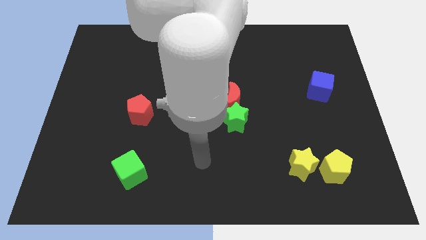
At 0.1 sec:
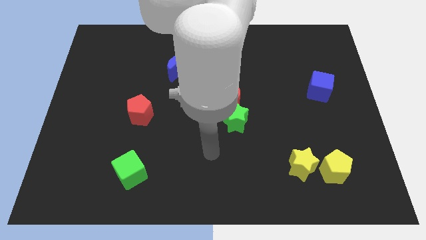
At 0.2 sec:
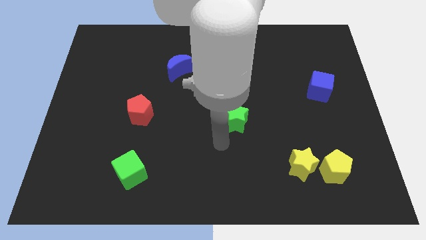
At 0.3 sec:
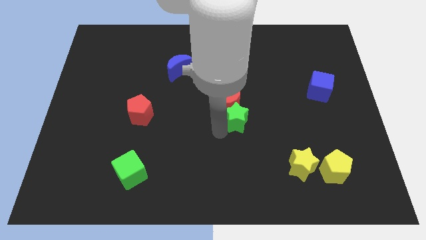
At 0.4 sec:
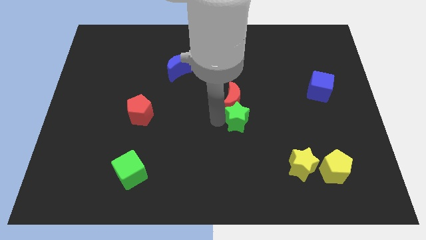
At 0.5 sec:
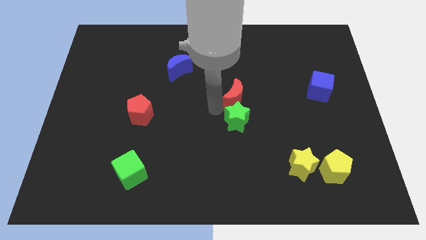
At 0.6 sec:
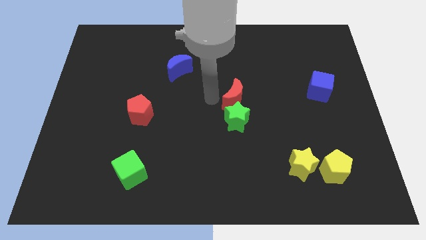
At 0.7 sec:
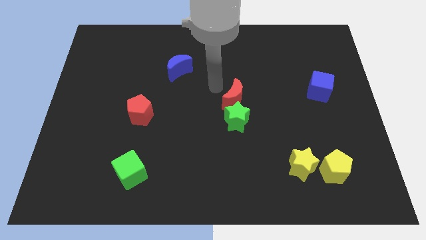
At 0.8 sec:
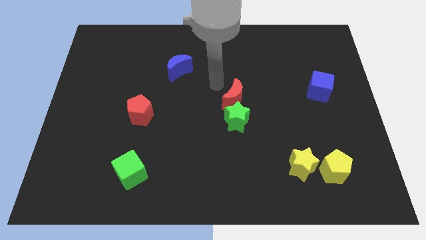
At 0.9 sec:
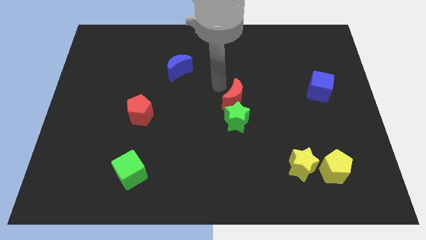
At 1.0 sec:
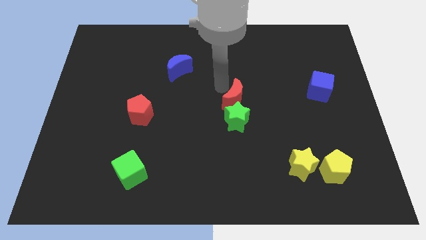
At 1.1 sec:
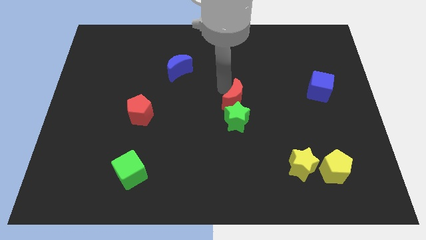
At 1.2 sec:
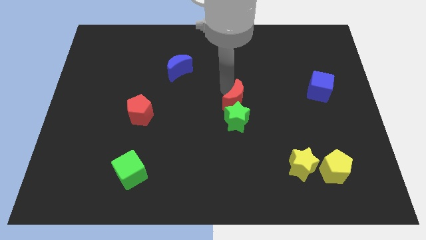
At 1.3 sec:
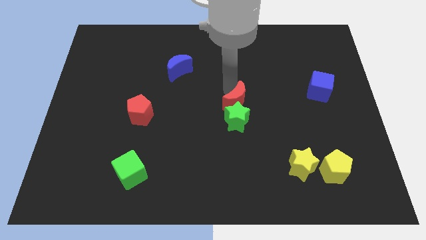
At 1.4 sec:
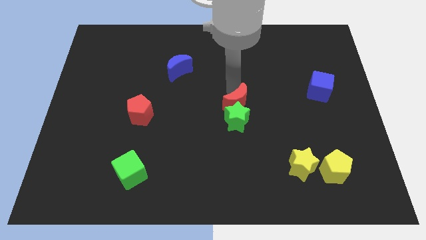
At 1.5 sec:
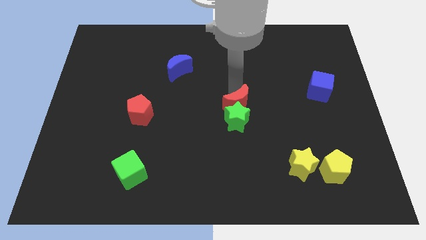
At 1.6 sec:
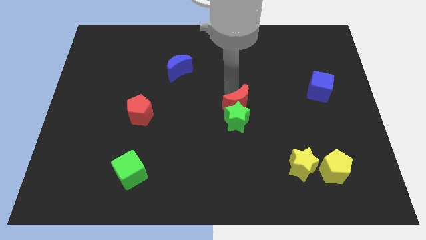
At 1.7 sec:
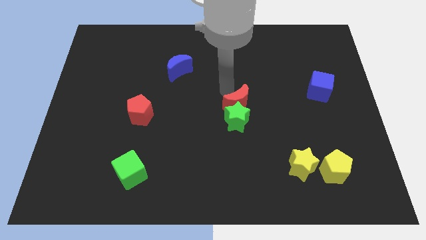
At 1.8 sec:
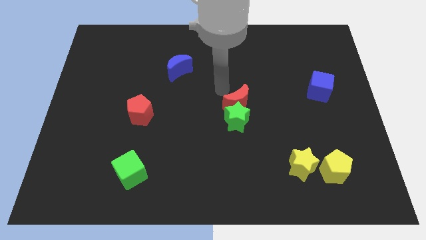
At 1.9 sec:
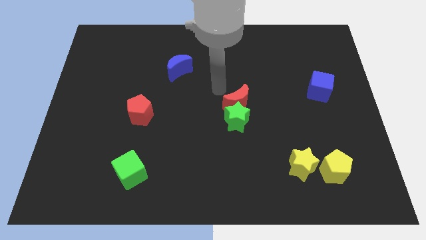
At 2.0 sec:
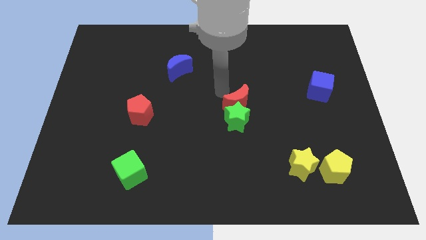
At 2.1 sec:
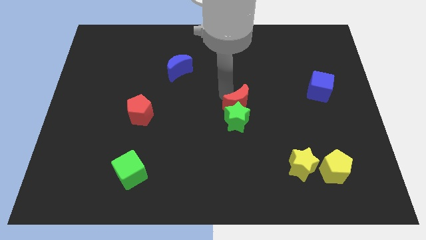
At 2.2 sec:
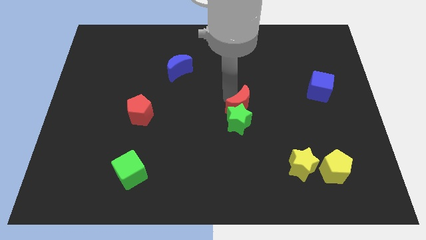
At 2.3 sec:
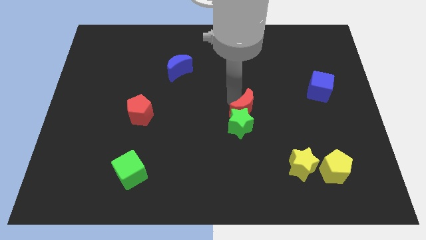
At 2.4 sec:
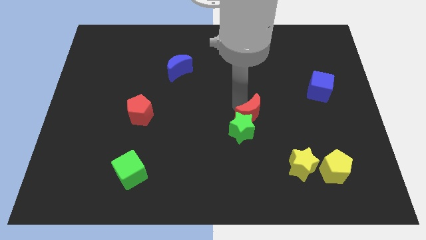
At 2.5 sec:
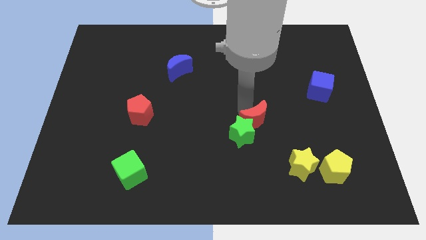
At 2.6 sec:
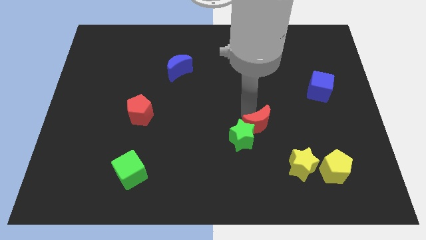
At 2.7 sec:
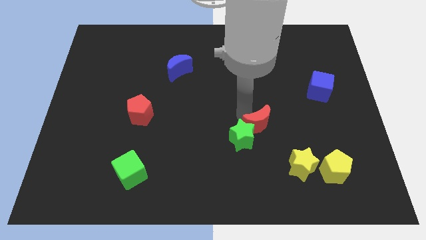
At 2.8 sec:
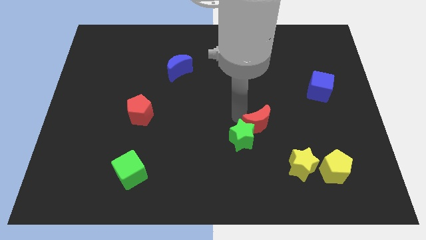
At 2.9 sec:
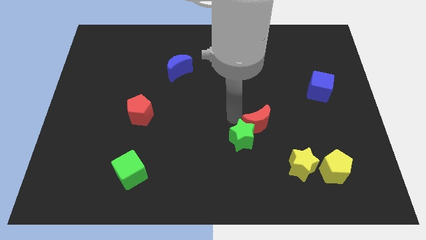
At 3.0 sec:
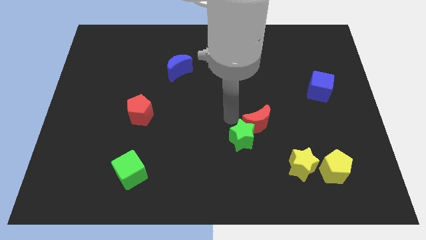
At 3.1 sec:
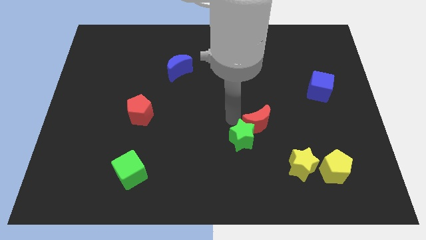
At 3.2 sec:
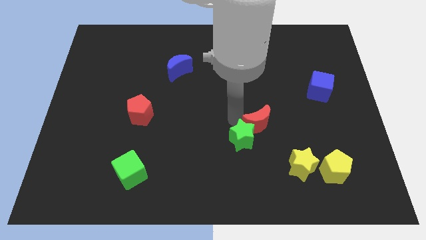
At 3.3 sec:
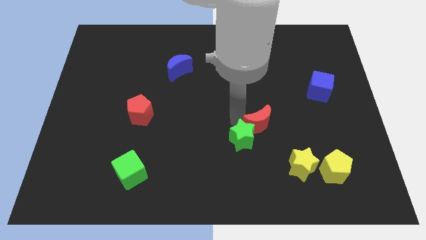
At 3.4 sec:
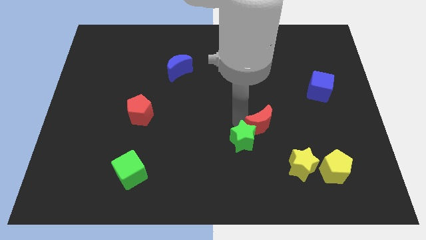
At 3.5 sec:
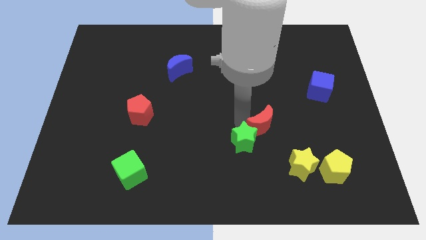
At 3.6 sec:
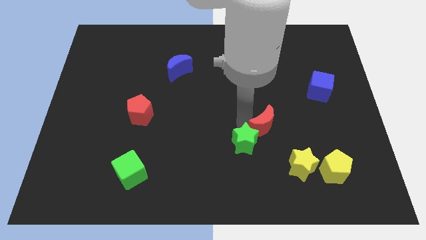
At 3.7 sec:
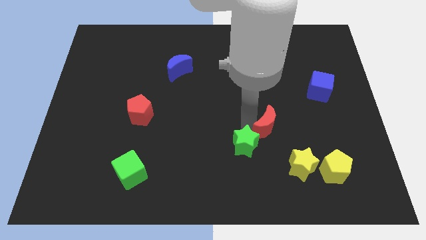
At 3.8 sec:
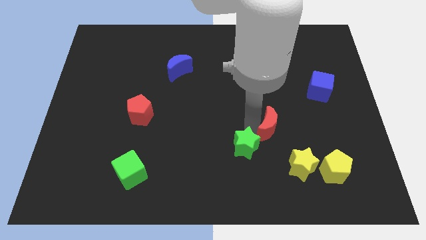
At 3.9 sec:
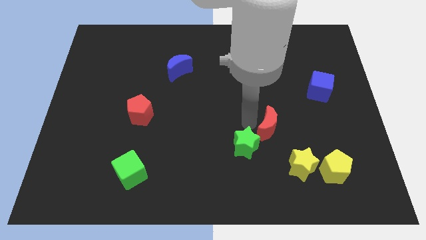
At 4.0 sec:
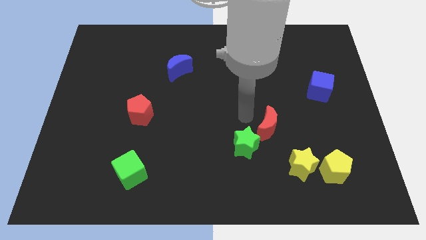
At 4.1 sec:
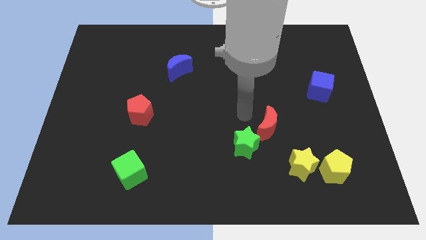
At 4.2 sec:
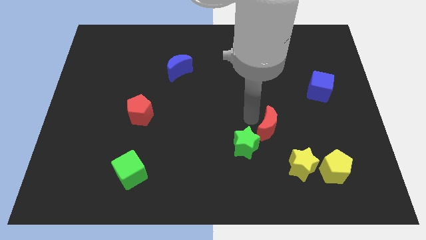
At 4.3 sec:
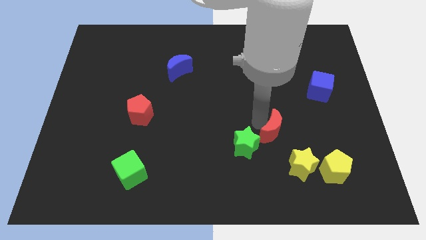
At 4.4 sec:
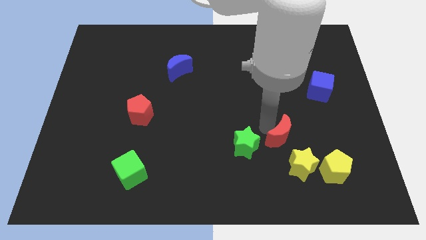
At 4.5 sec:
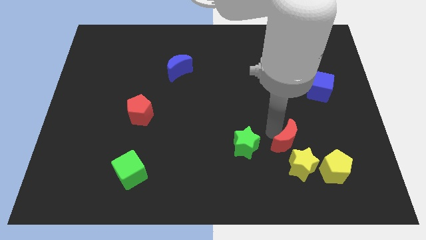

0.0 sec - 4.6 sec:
slide the red moon diagonally up and to the left of the yellow pentagon

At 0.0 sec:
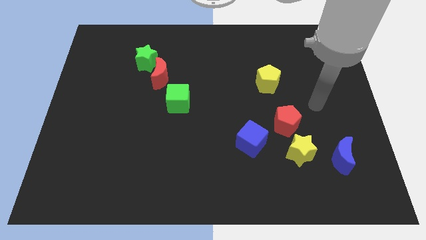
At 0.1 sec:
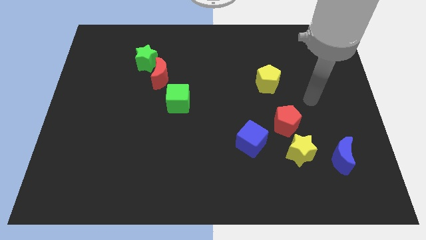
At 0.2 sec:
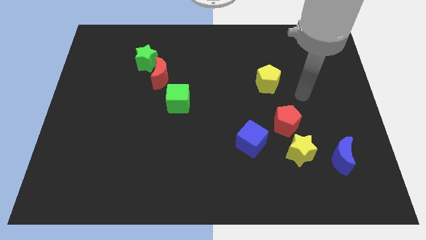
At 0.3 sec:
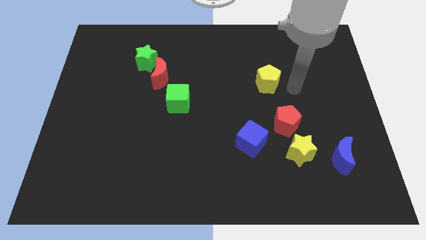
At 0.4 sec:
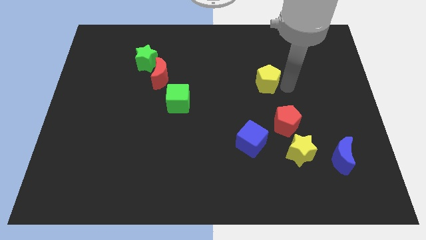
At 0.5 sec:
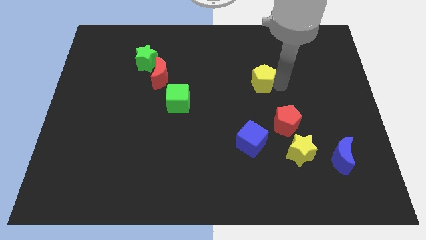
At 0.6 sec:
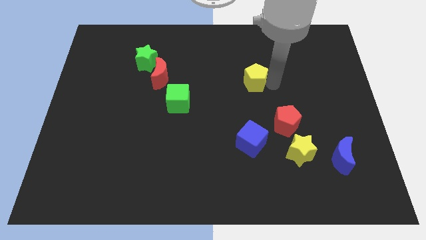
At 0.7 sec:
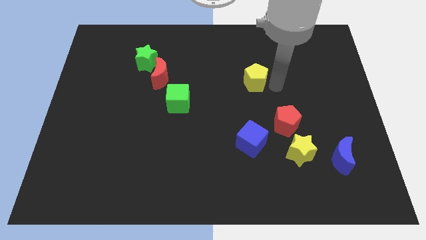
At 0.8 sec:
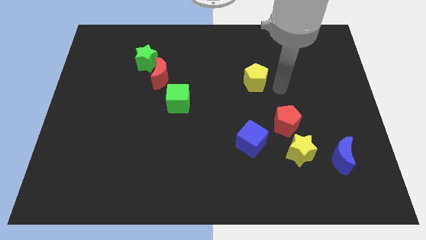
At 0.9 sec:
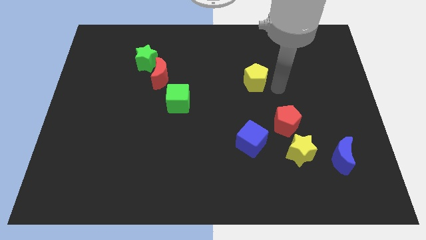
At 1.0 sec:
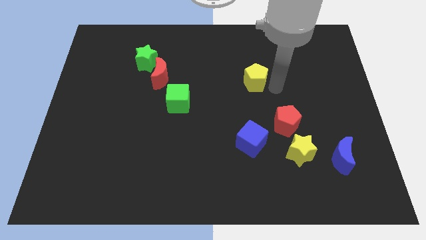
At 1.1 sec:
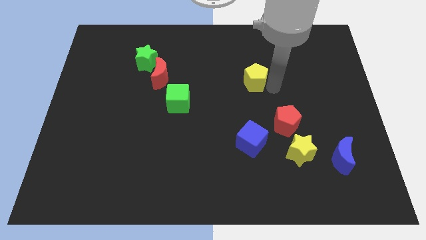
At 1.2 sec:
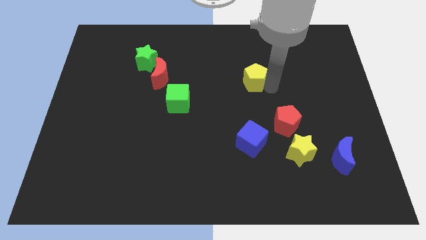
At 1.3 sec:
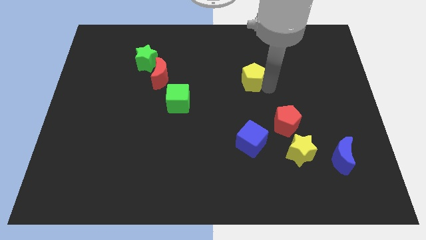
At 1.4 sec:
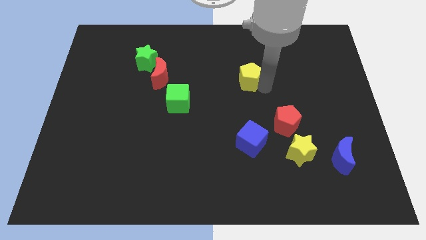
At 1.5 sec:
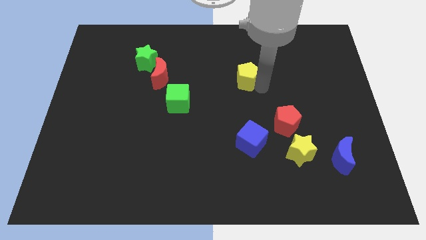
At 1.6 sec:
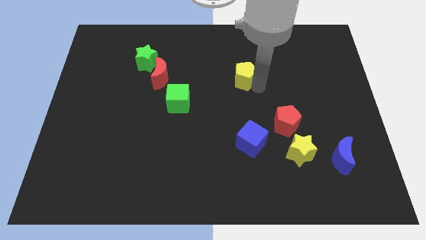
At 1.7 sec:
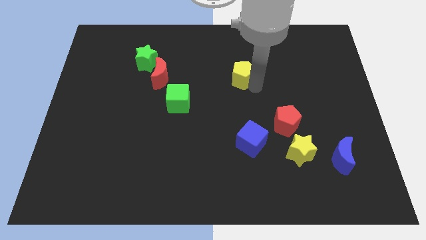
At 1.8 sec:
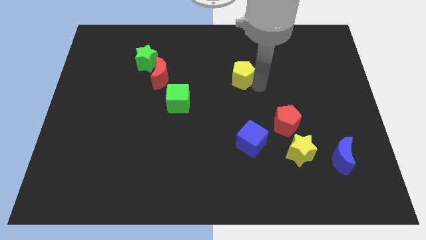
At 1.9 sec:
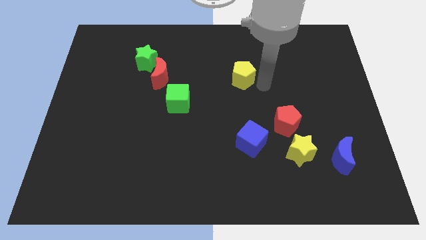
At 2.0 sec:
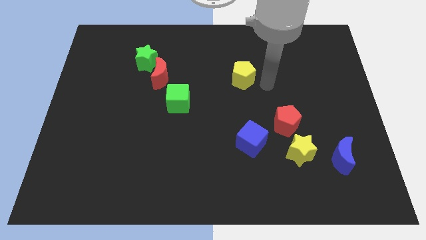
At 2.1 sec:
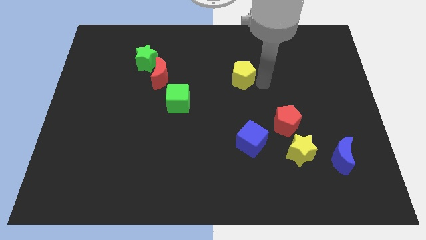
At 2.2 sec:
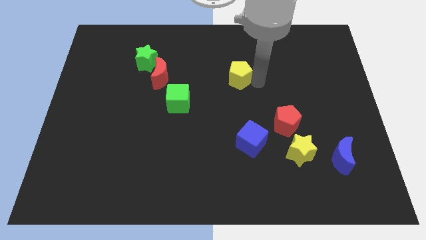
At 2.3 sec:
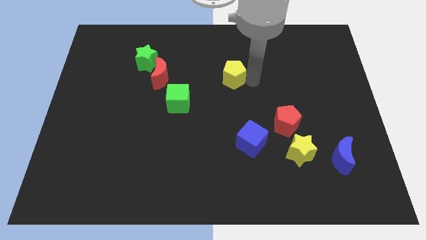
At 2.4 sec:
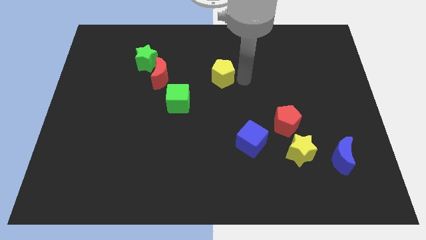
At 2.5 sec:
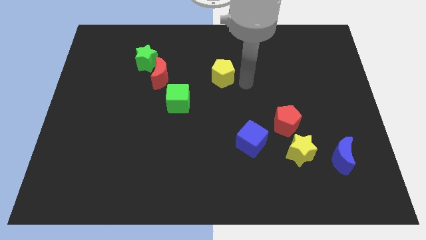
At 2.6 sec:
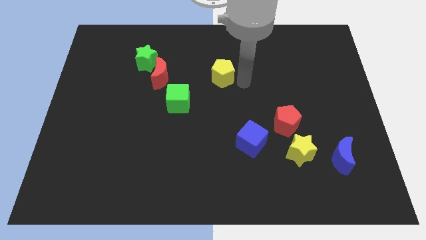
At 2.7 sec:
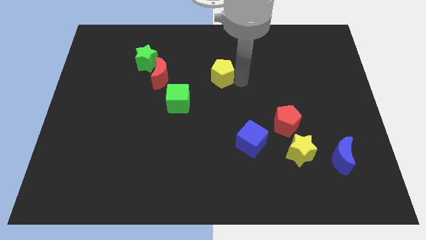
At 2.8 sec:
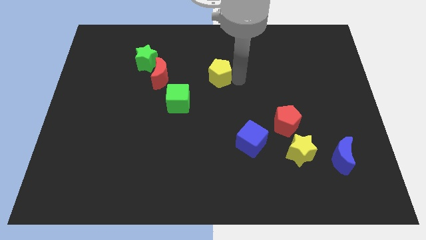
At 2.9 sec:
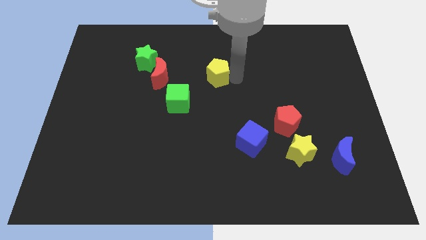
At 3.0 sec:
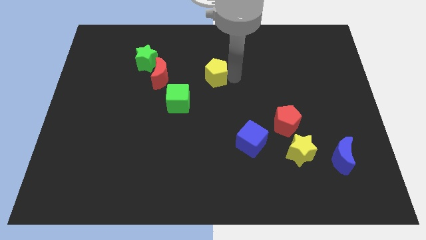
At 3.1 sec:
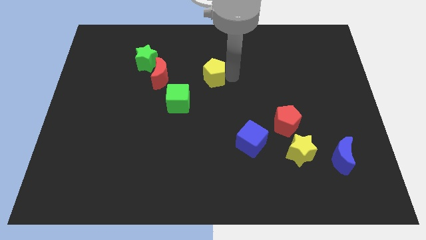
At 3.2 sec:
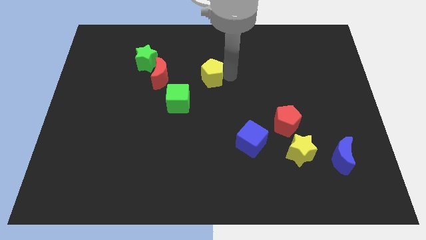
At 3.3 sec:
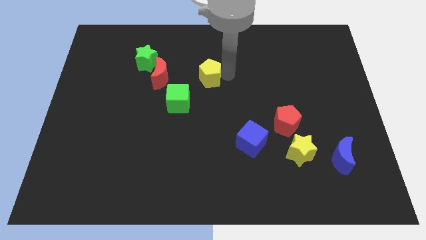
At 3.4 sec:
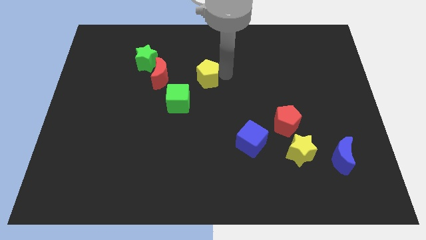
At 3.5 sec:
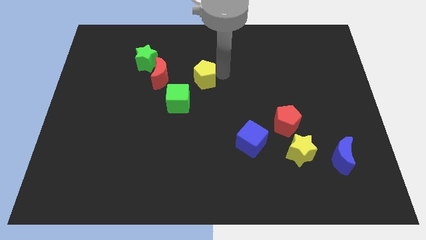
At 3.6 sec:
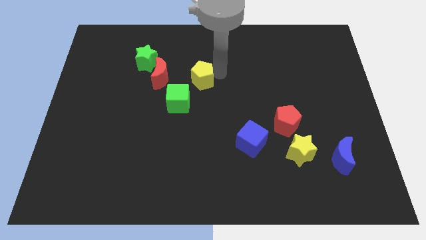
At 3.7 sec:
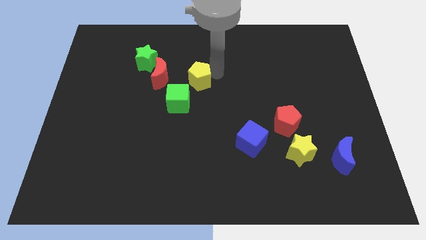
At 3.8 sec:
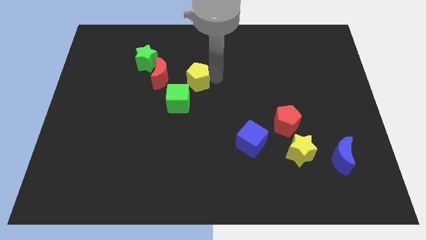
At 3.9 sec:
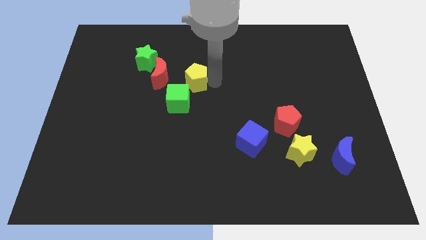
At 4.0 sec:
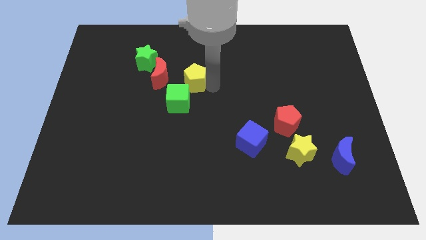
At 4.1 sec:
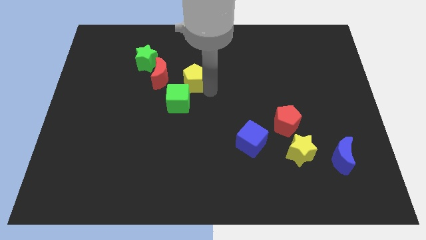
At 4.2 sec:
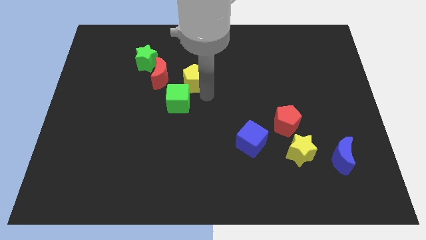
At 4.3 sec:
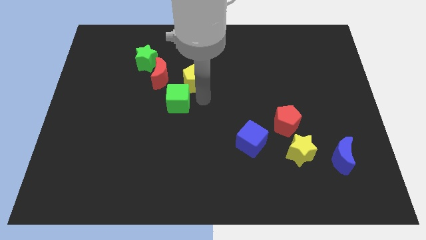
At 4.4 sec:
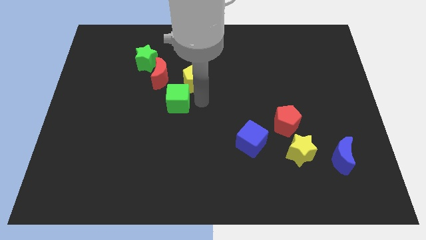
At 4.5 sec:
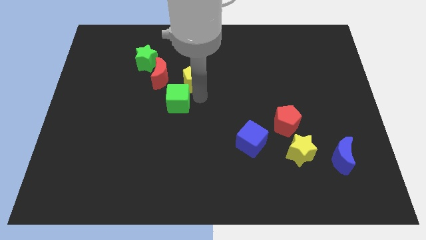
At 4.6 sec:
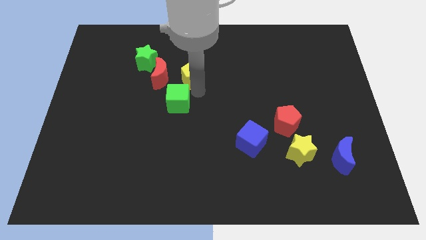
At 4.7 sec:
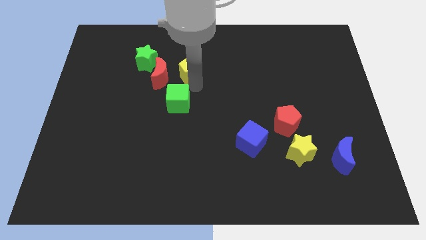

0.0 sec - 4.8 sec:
move the yellow pentagon just right of the green star
